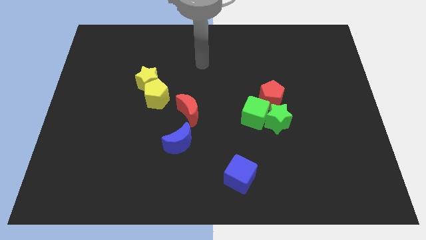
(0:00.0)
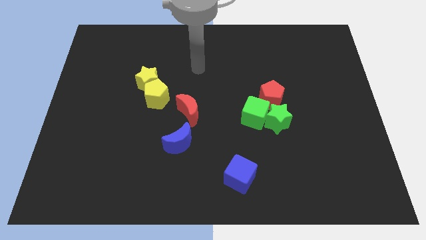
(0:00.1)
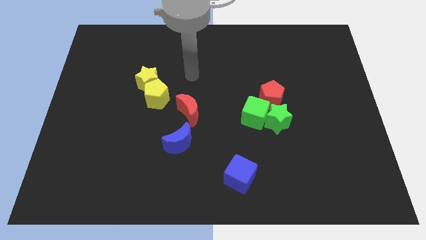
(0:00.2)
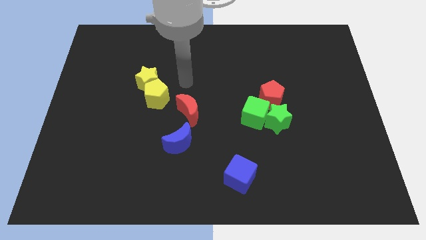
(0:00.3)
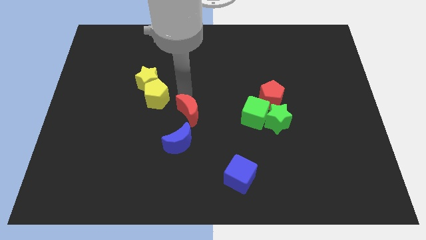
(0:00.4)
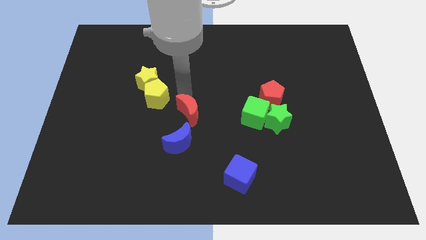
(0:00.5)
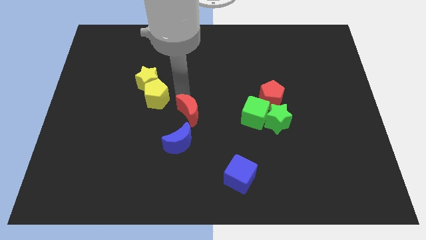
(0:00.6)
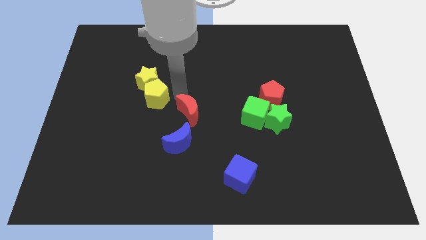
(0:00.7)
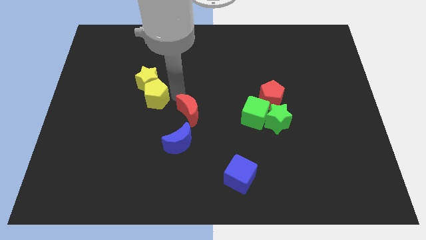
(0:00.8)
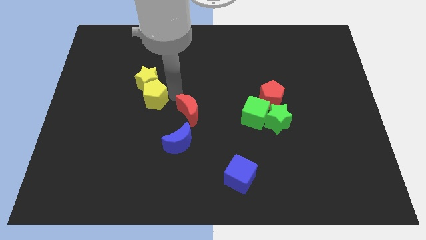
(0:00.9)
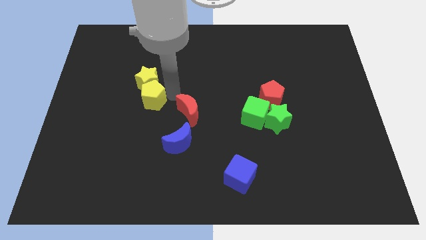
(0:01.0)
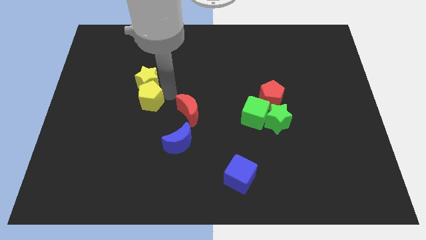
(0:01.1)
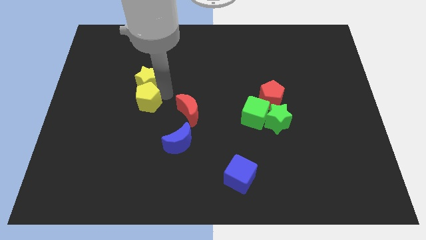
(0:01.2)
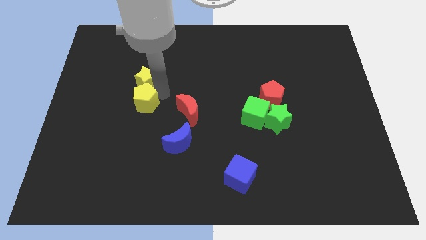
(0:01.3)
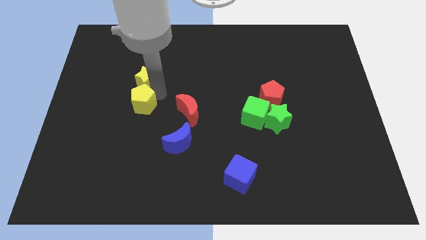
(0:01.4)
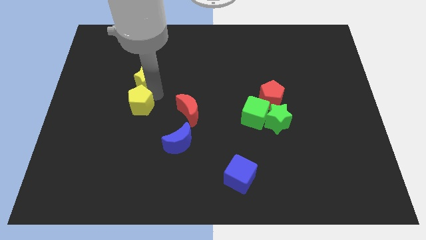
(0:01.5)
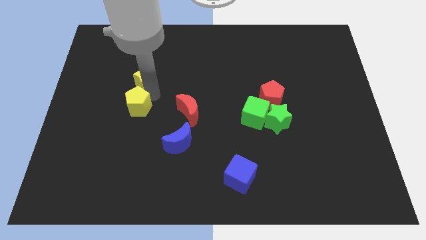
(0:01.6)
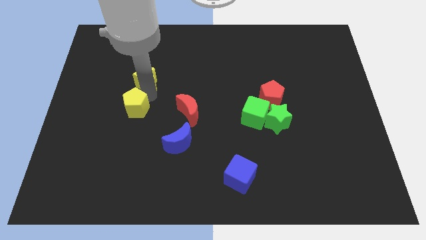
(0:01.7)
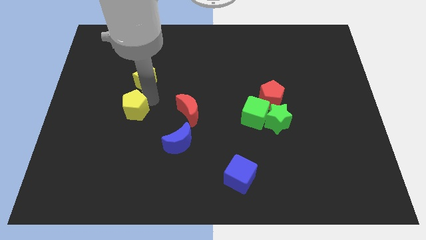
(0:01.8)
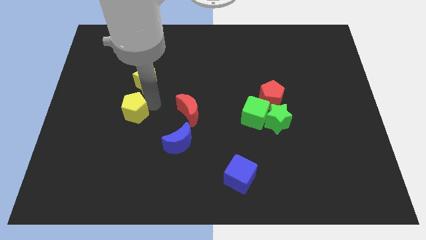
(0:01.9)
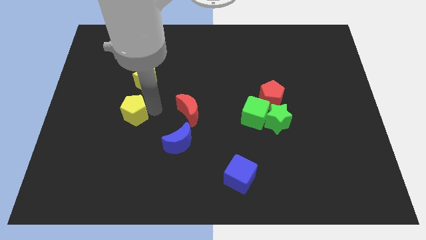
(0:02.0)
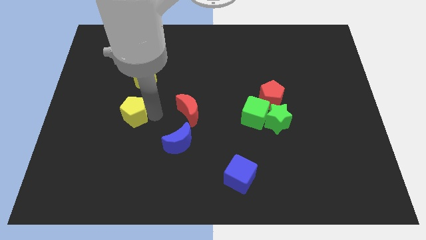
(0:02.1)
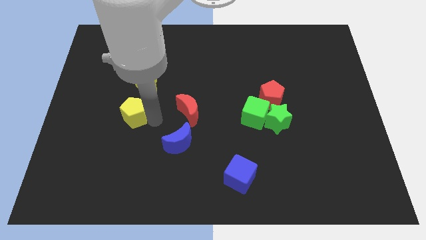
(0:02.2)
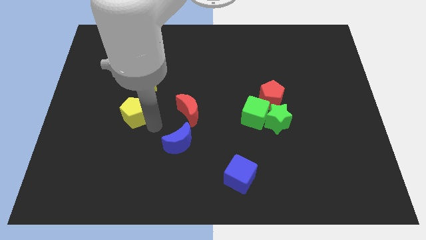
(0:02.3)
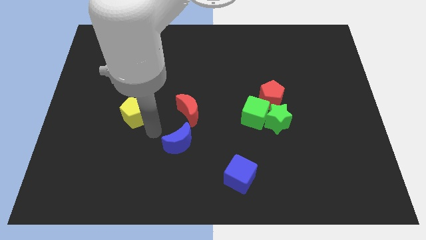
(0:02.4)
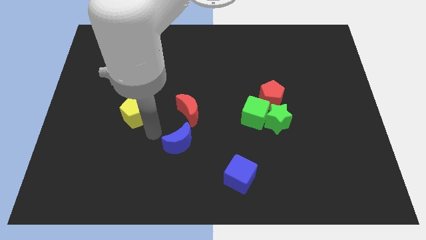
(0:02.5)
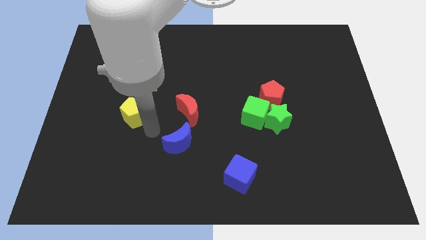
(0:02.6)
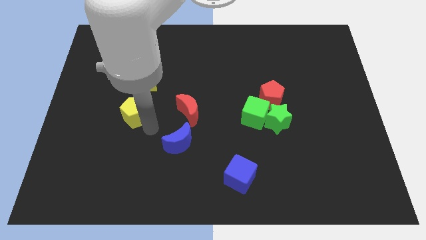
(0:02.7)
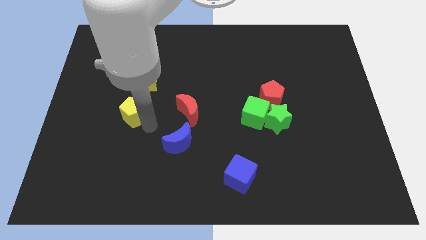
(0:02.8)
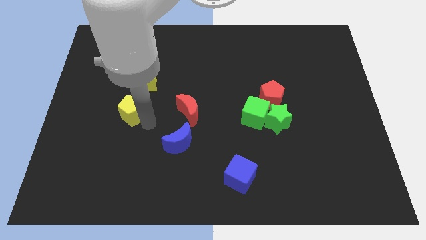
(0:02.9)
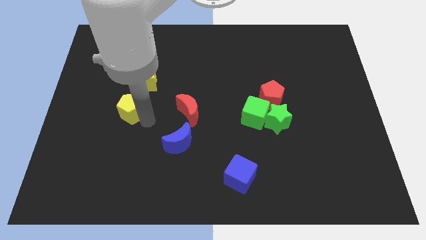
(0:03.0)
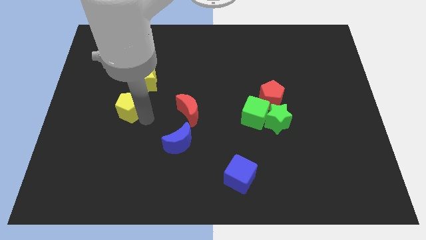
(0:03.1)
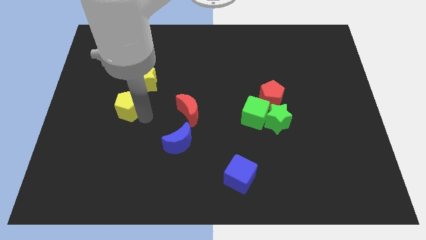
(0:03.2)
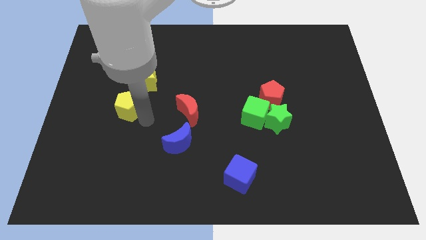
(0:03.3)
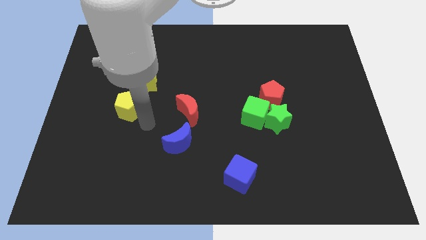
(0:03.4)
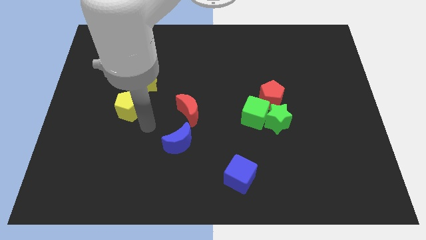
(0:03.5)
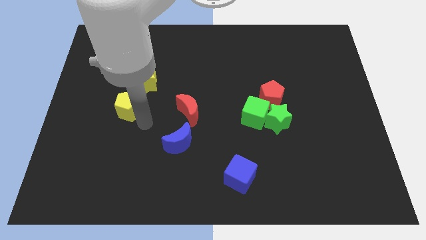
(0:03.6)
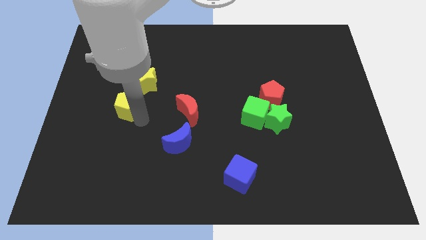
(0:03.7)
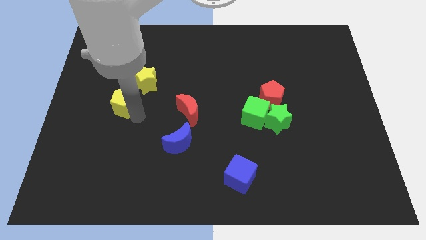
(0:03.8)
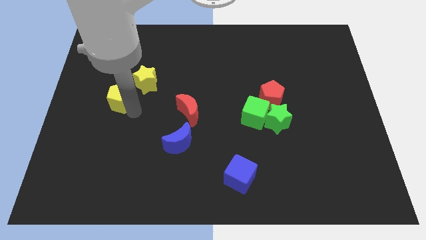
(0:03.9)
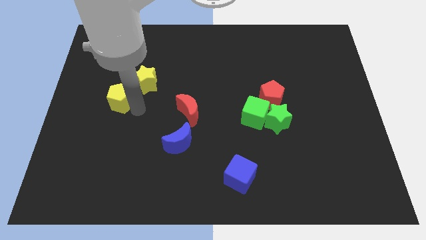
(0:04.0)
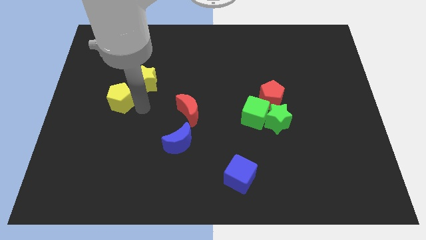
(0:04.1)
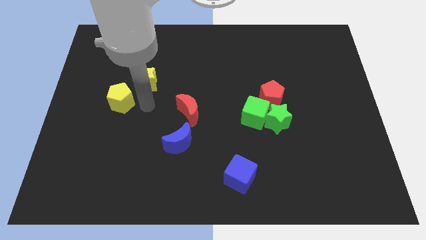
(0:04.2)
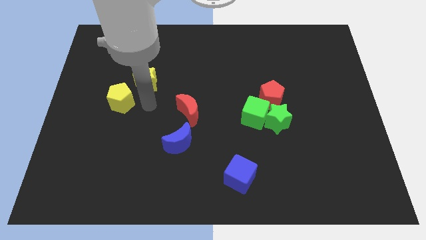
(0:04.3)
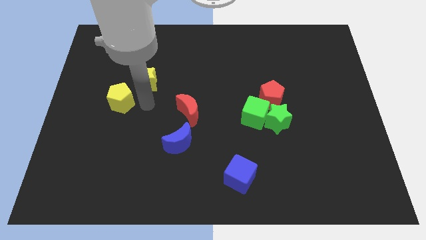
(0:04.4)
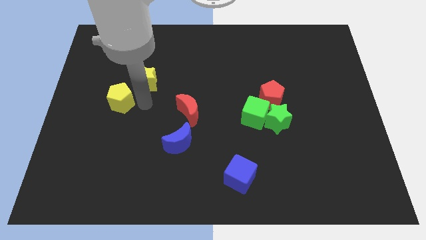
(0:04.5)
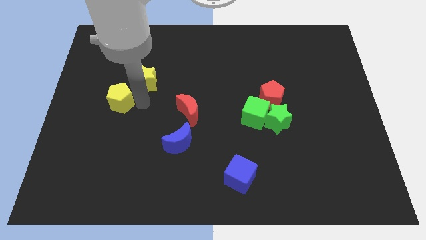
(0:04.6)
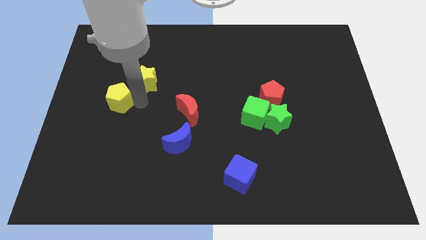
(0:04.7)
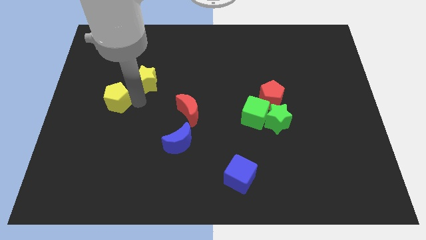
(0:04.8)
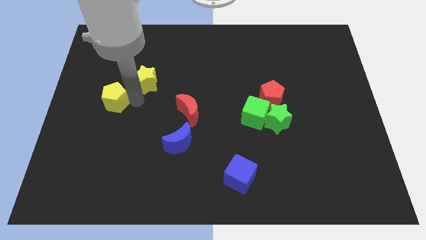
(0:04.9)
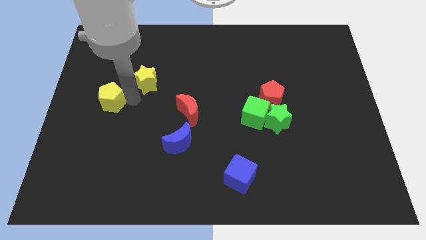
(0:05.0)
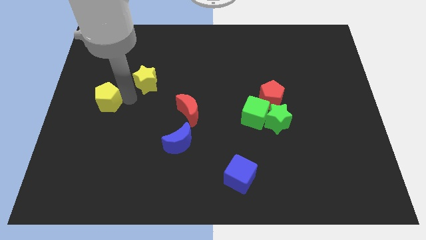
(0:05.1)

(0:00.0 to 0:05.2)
put the yellow pentagon to the left side

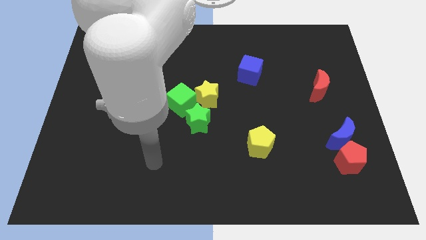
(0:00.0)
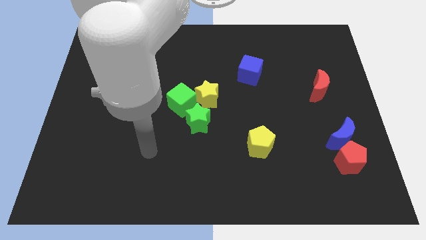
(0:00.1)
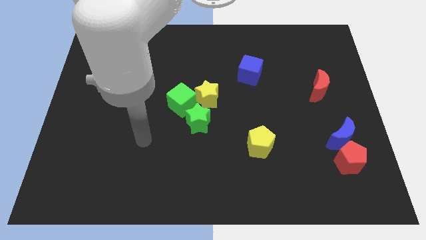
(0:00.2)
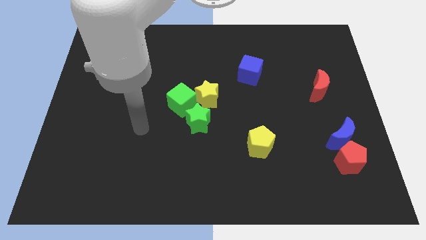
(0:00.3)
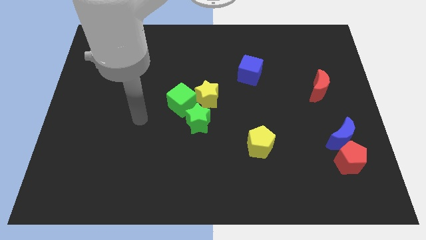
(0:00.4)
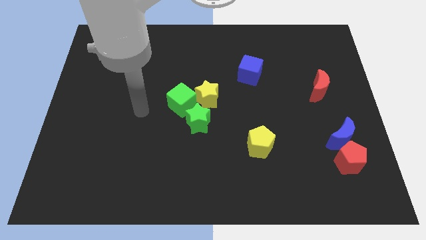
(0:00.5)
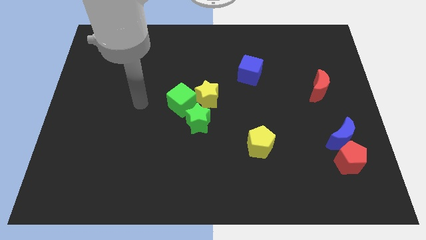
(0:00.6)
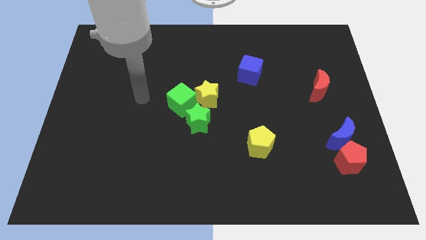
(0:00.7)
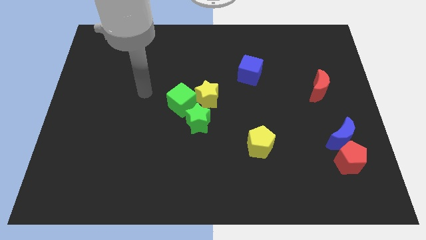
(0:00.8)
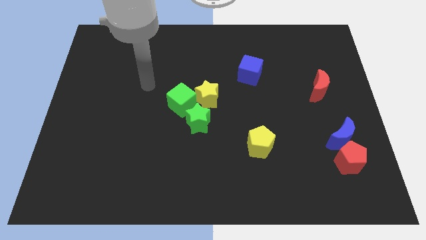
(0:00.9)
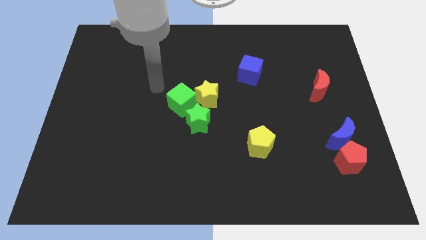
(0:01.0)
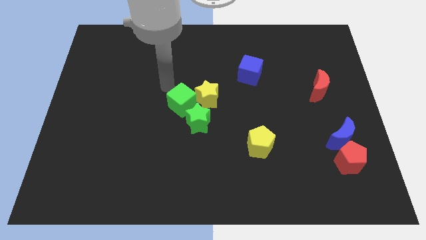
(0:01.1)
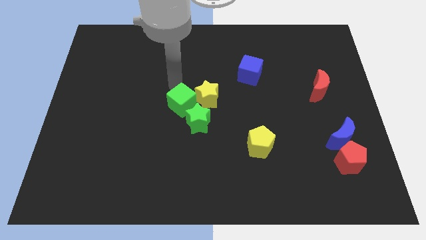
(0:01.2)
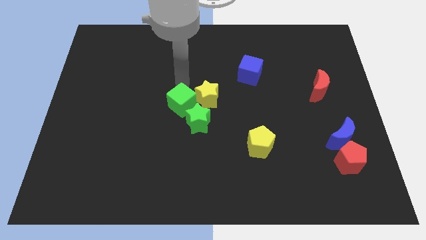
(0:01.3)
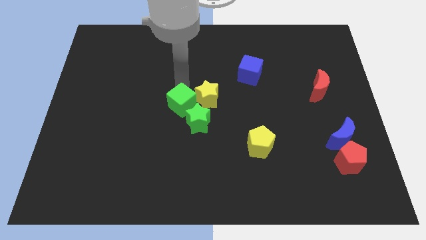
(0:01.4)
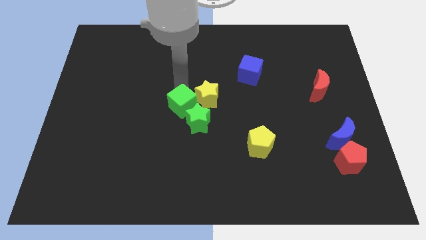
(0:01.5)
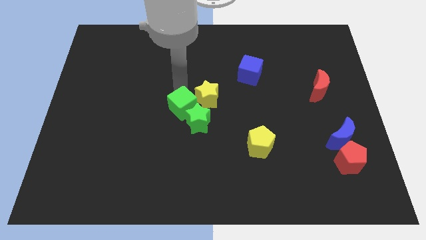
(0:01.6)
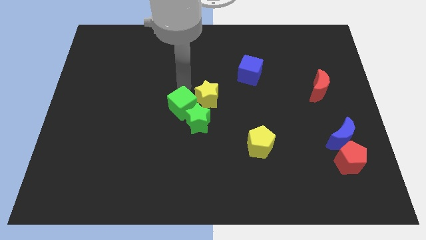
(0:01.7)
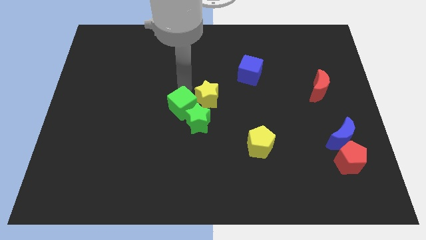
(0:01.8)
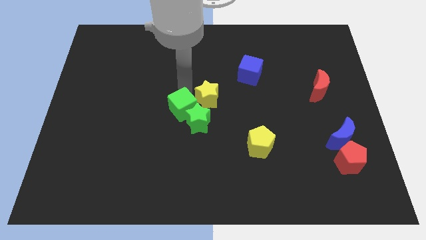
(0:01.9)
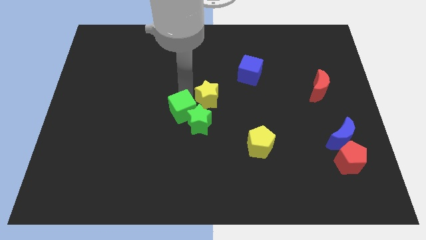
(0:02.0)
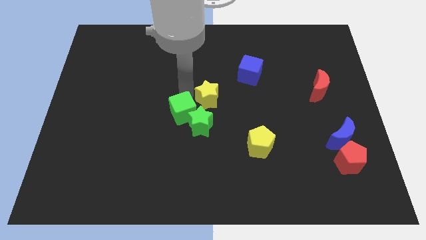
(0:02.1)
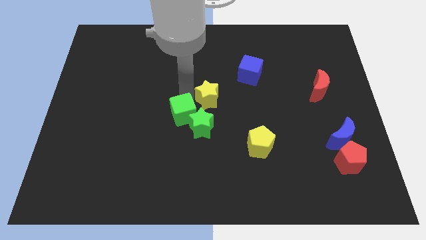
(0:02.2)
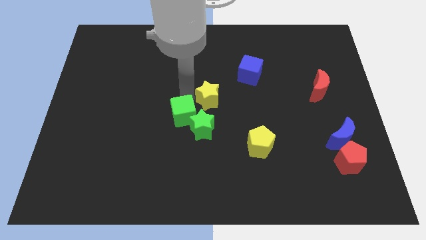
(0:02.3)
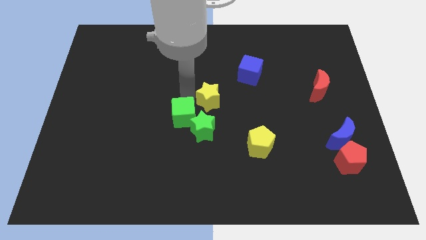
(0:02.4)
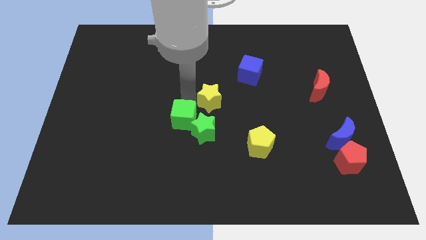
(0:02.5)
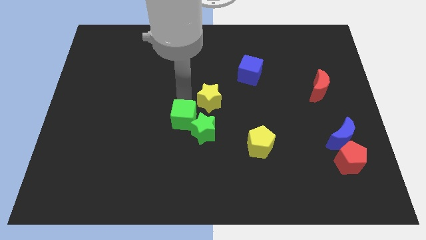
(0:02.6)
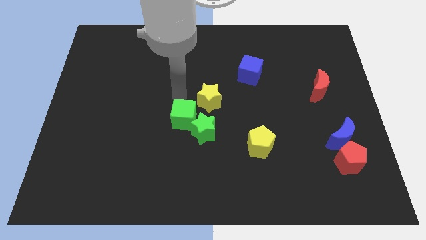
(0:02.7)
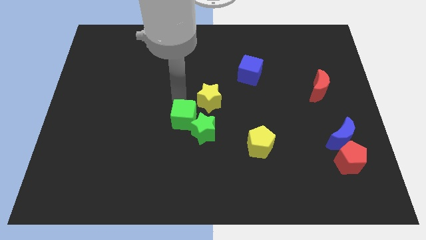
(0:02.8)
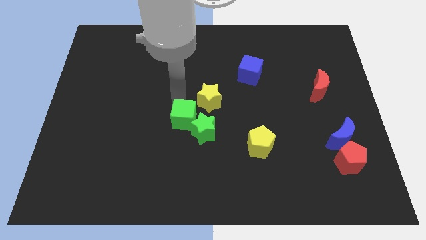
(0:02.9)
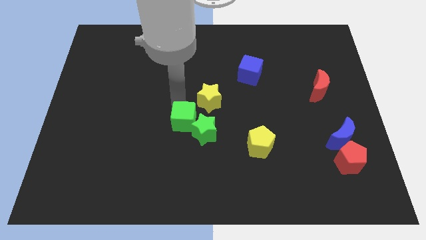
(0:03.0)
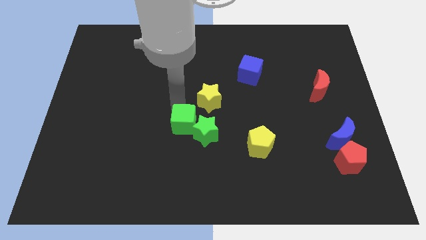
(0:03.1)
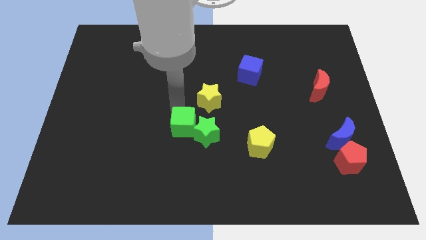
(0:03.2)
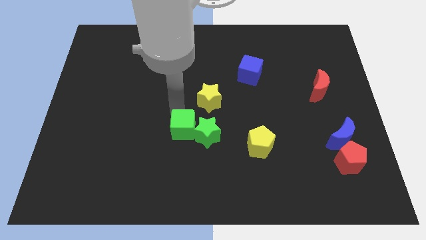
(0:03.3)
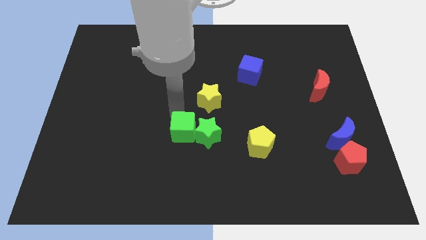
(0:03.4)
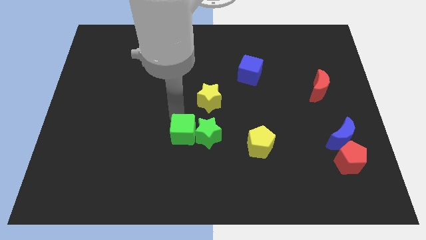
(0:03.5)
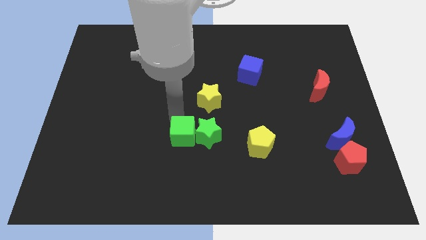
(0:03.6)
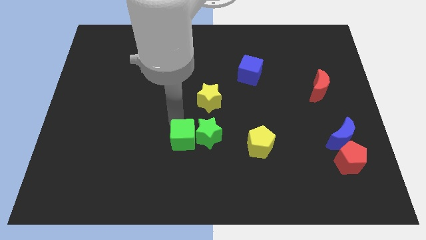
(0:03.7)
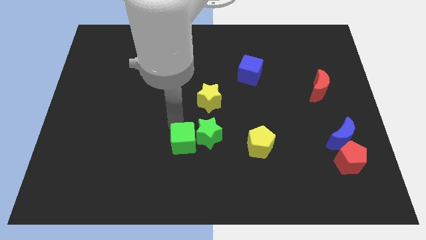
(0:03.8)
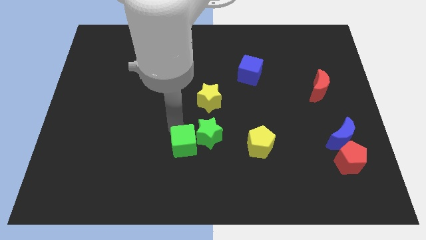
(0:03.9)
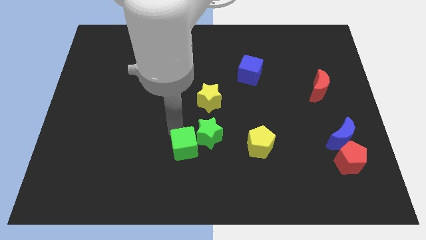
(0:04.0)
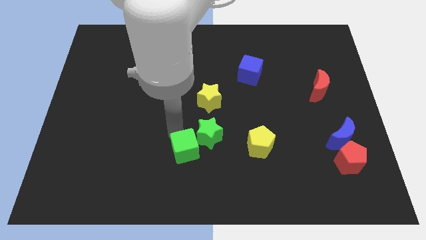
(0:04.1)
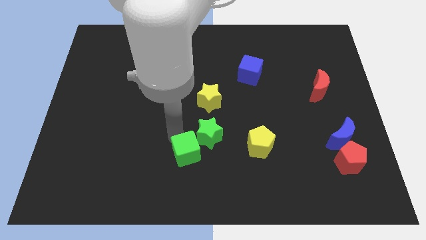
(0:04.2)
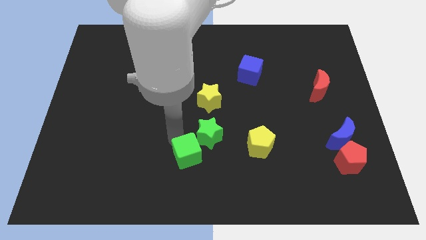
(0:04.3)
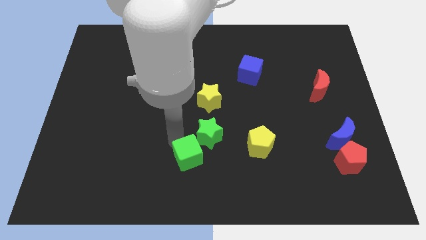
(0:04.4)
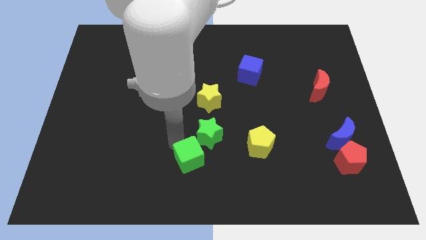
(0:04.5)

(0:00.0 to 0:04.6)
move the green cube to the bottom
